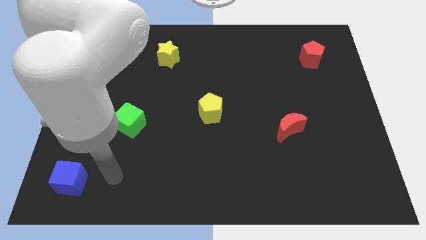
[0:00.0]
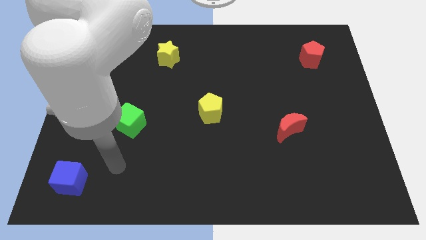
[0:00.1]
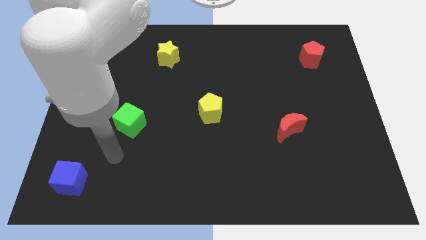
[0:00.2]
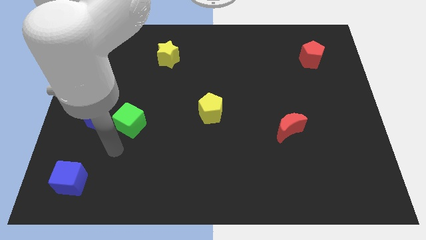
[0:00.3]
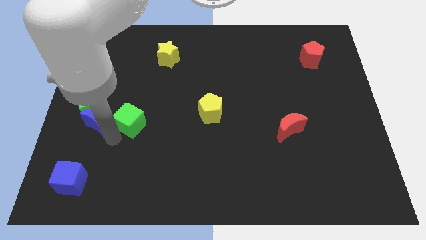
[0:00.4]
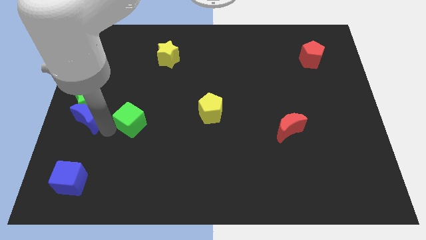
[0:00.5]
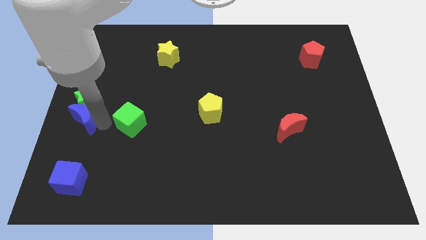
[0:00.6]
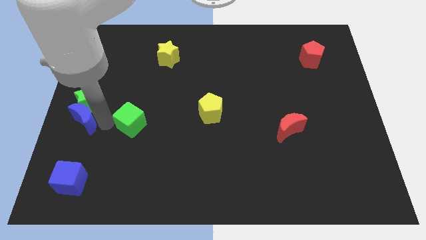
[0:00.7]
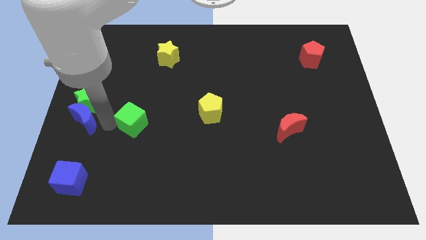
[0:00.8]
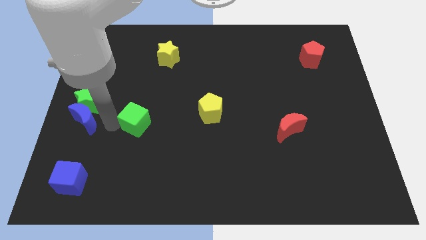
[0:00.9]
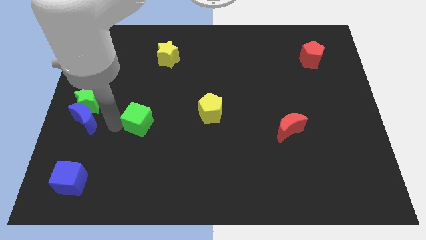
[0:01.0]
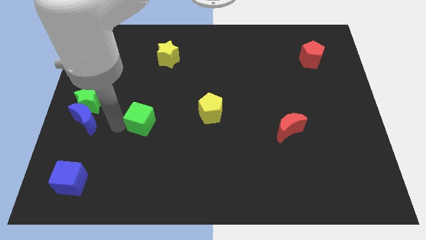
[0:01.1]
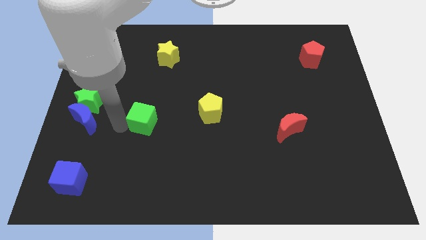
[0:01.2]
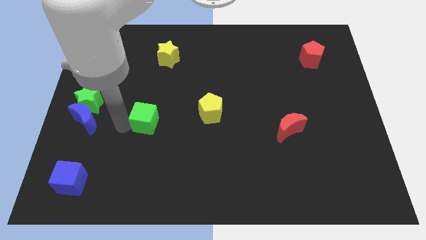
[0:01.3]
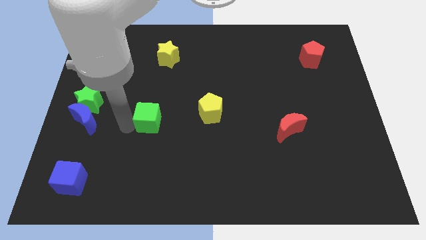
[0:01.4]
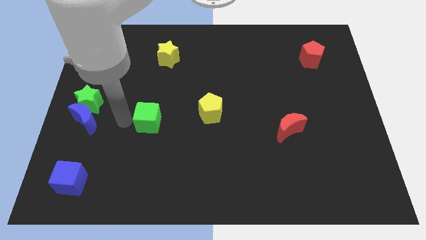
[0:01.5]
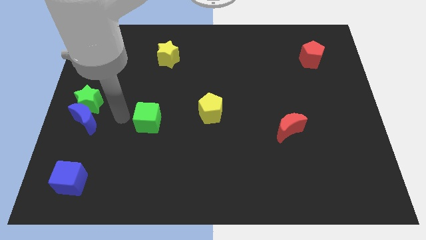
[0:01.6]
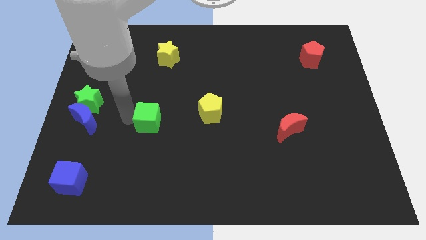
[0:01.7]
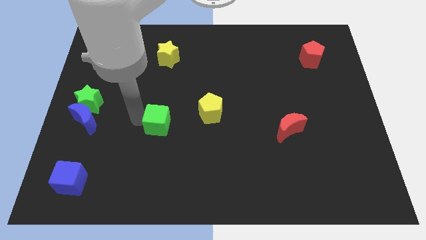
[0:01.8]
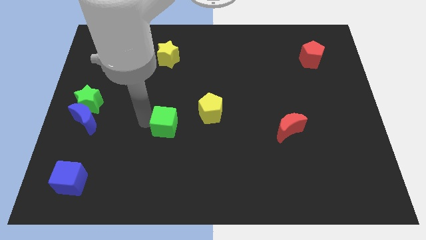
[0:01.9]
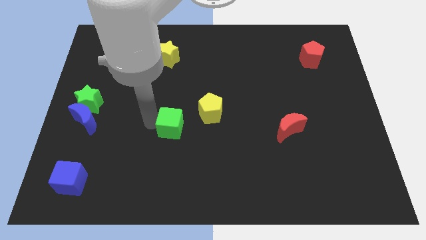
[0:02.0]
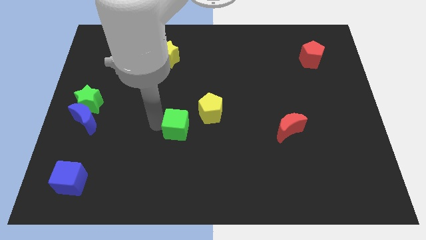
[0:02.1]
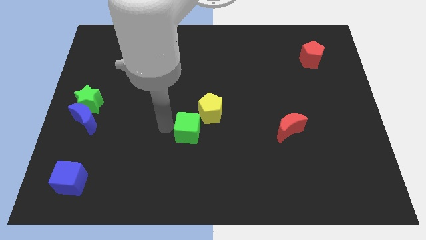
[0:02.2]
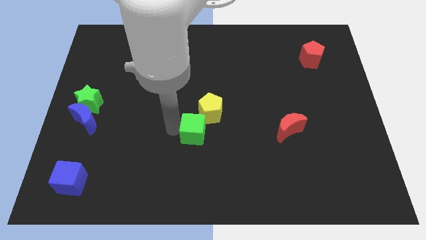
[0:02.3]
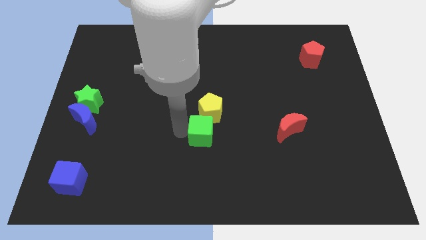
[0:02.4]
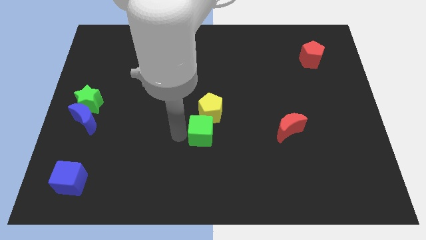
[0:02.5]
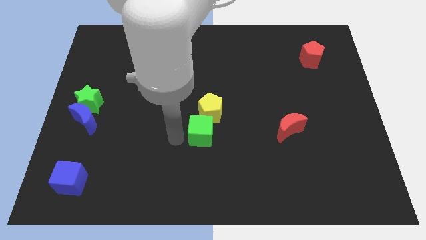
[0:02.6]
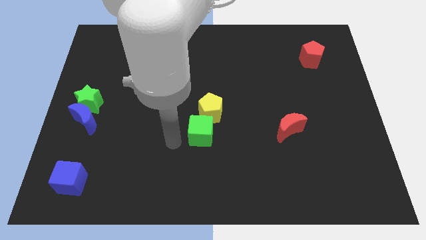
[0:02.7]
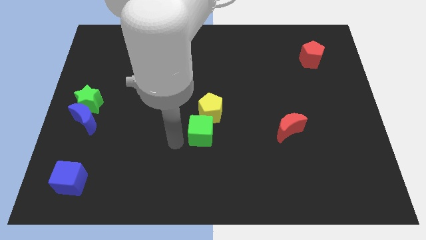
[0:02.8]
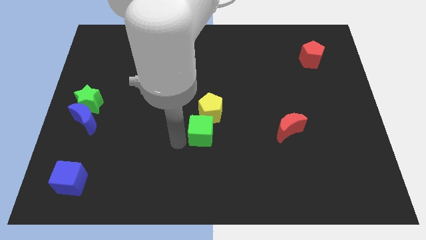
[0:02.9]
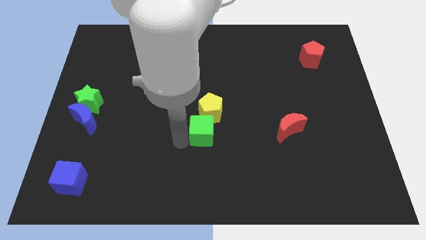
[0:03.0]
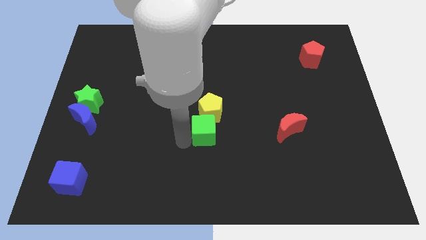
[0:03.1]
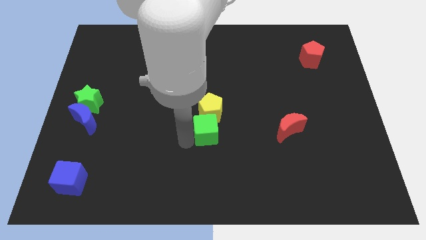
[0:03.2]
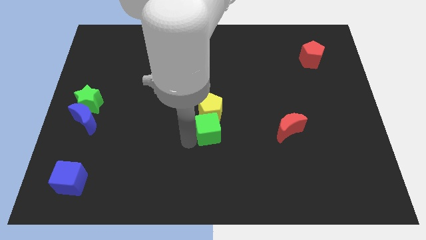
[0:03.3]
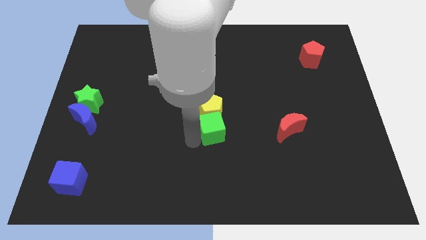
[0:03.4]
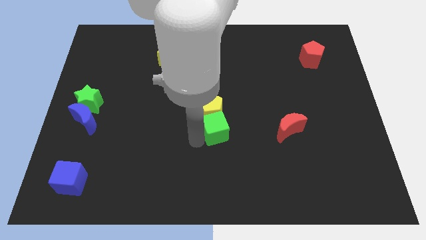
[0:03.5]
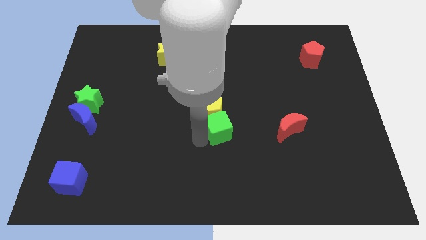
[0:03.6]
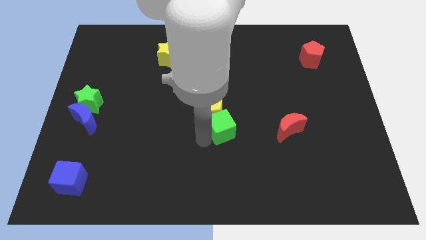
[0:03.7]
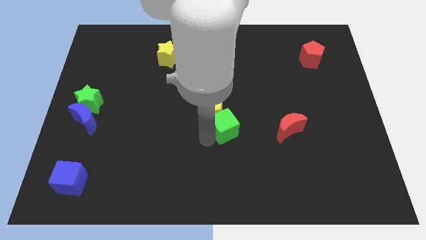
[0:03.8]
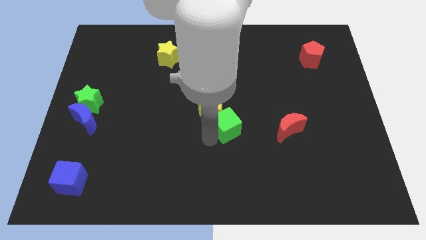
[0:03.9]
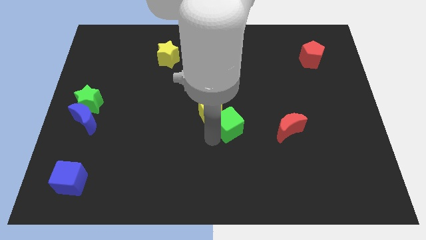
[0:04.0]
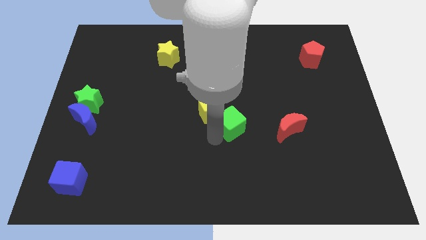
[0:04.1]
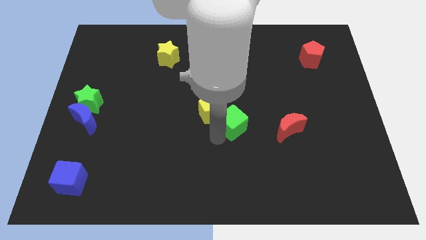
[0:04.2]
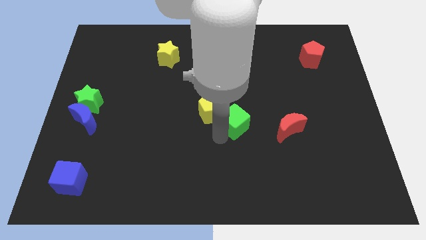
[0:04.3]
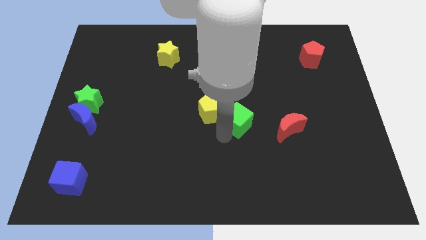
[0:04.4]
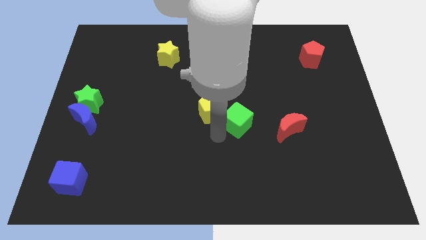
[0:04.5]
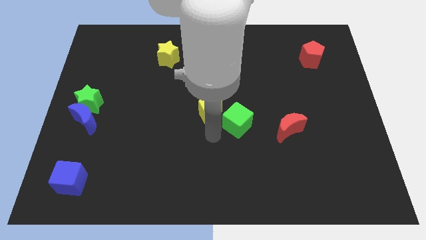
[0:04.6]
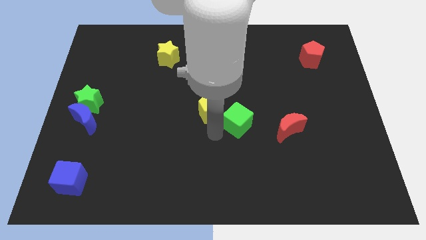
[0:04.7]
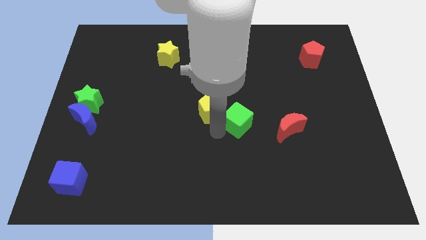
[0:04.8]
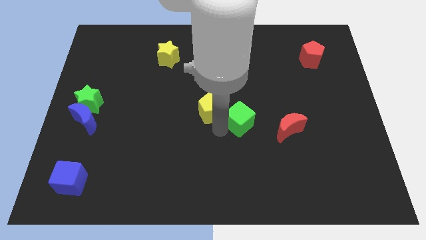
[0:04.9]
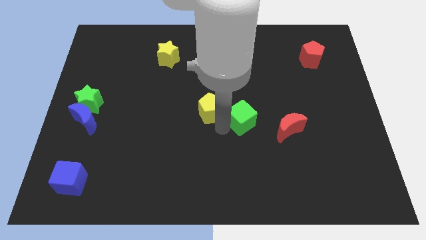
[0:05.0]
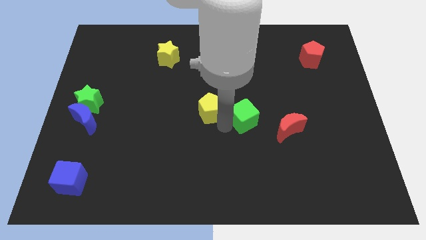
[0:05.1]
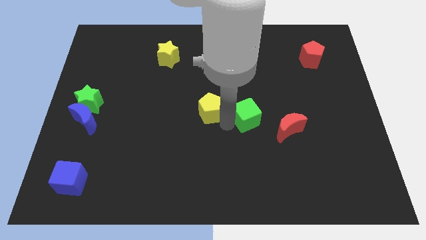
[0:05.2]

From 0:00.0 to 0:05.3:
put the green cube diagonally up and to the left of the red moon

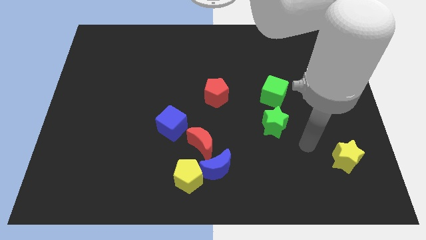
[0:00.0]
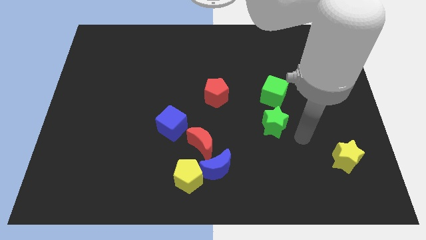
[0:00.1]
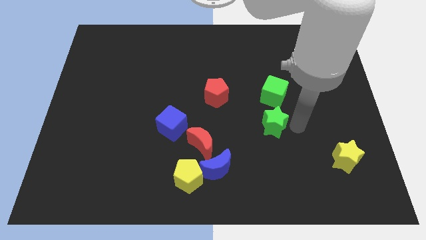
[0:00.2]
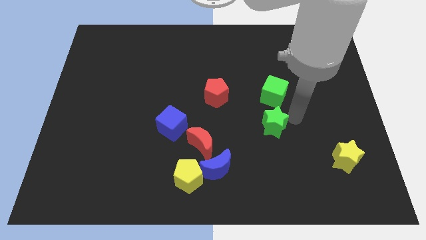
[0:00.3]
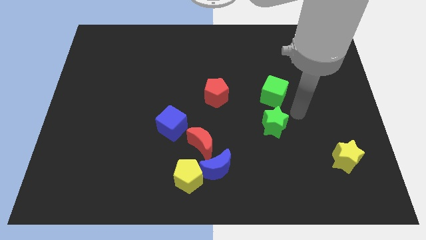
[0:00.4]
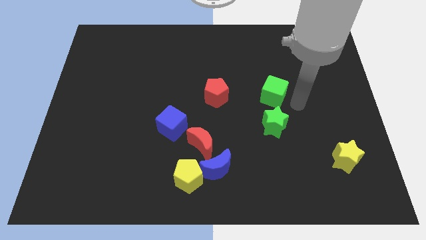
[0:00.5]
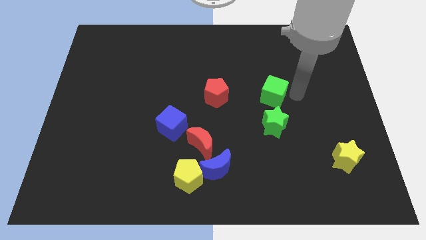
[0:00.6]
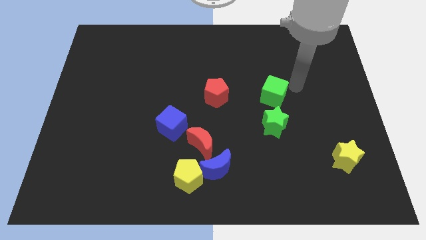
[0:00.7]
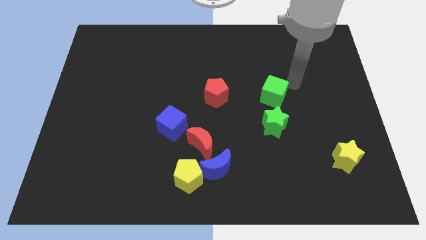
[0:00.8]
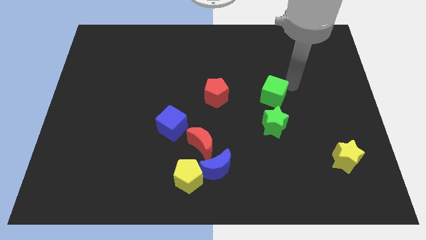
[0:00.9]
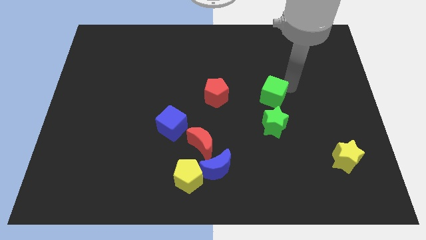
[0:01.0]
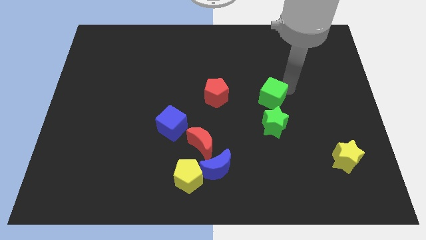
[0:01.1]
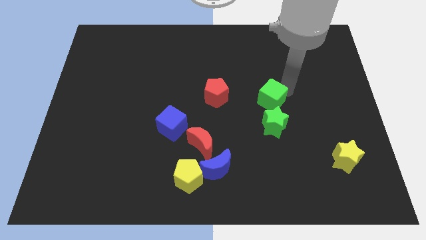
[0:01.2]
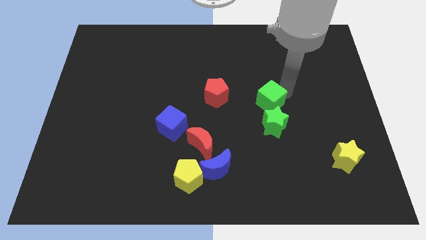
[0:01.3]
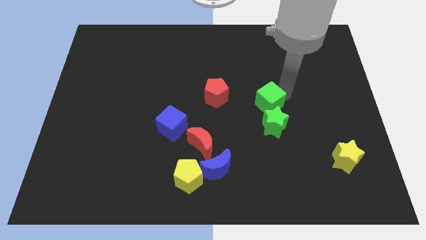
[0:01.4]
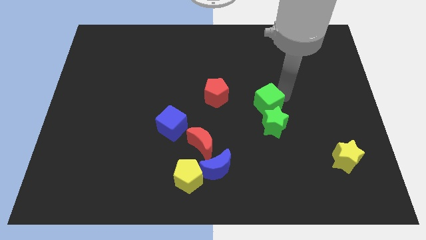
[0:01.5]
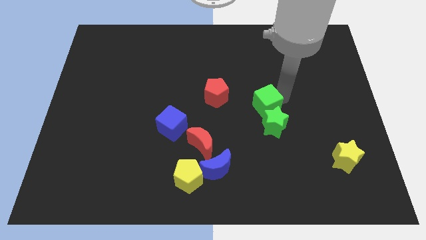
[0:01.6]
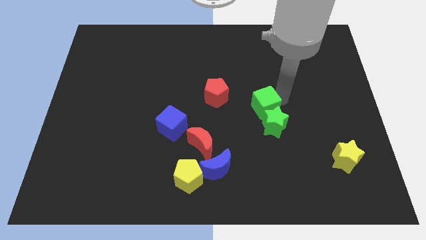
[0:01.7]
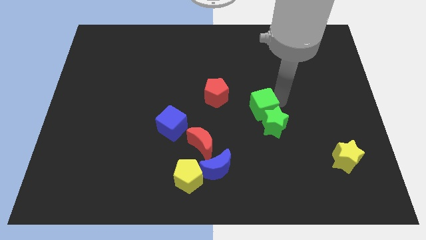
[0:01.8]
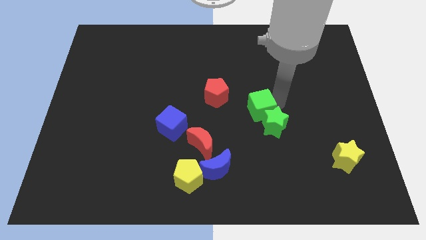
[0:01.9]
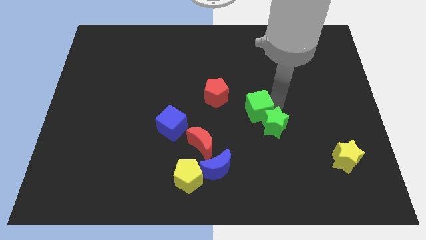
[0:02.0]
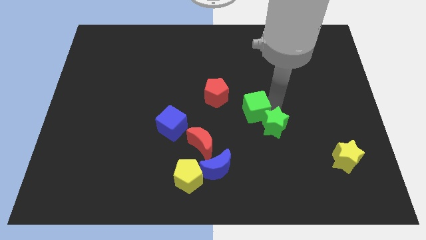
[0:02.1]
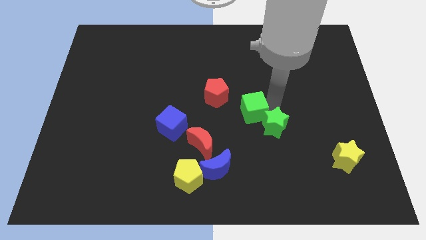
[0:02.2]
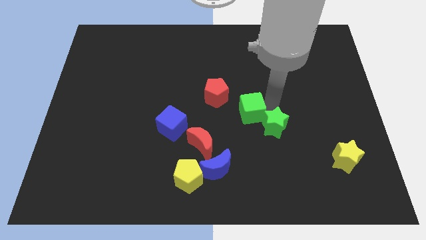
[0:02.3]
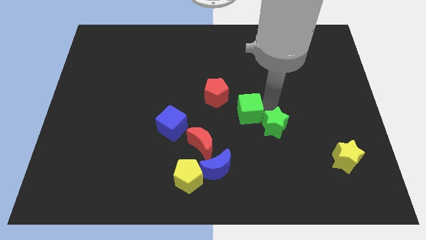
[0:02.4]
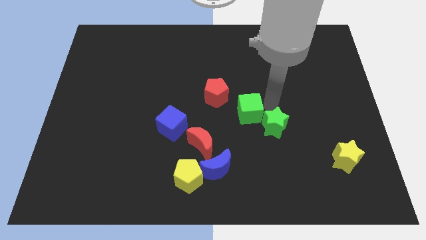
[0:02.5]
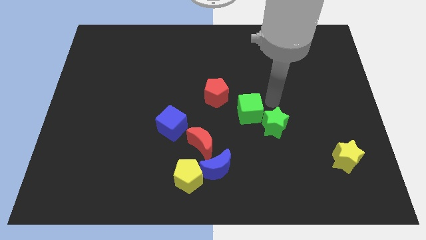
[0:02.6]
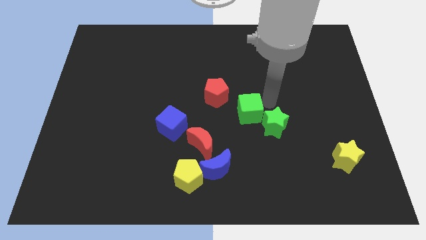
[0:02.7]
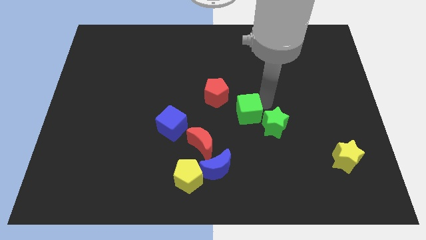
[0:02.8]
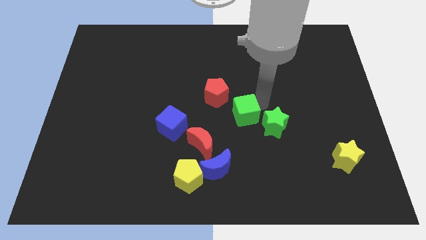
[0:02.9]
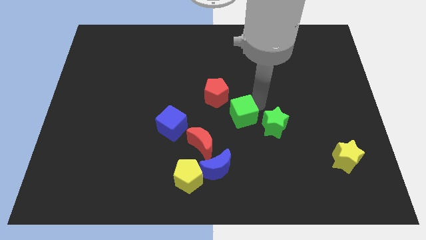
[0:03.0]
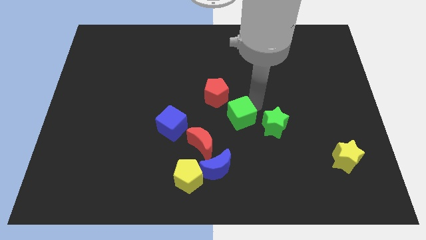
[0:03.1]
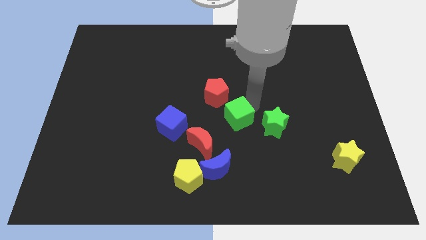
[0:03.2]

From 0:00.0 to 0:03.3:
slide the green cube to the right of the blue cube
